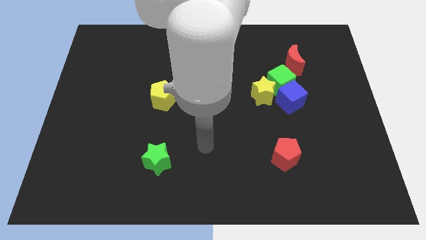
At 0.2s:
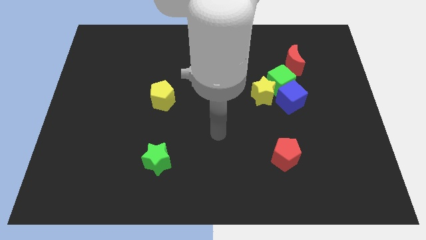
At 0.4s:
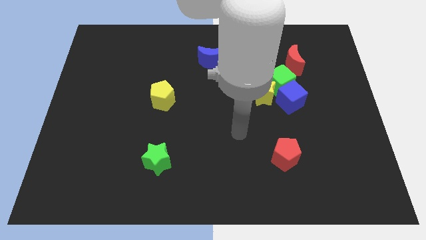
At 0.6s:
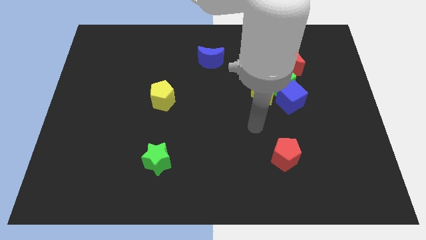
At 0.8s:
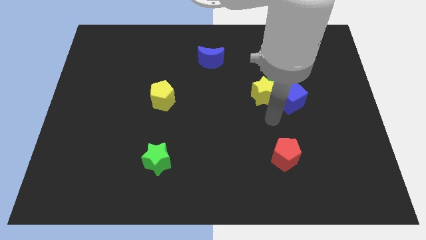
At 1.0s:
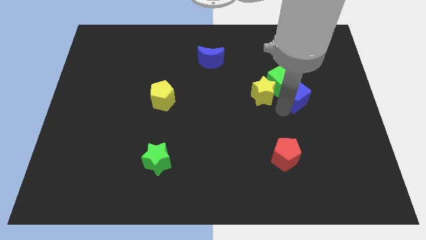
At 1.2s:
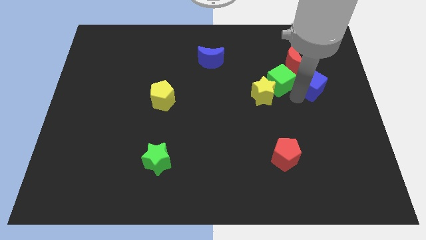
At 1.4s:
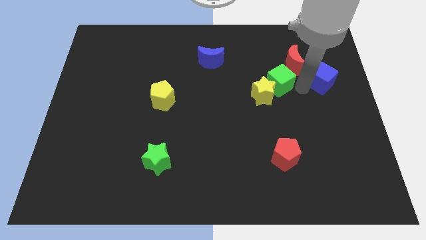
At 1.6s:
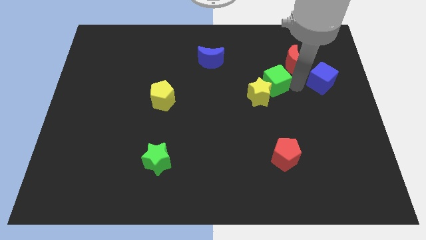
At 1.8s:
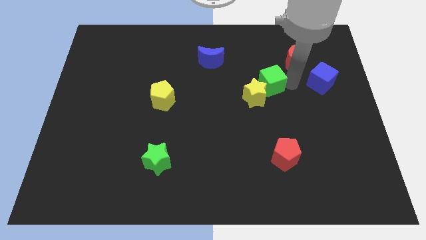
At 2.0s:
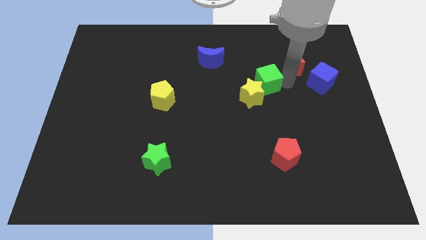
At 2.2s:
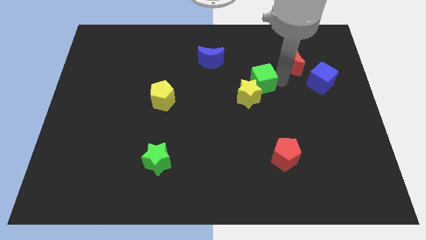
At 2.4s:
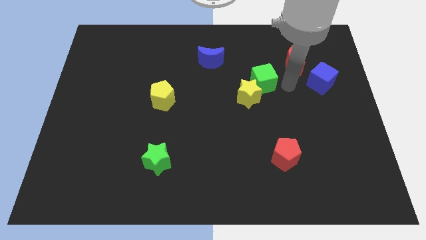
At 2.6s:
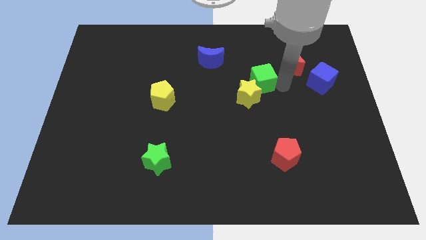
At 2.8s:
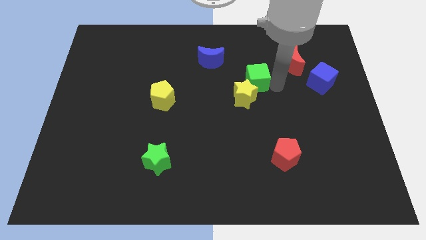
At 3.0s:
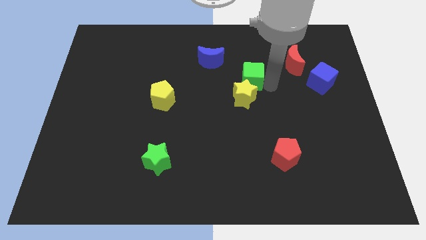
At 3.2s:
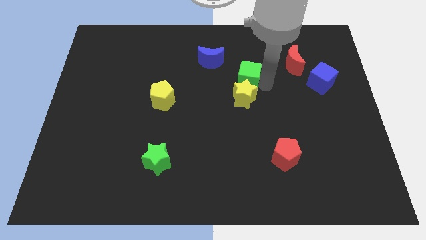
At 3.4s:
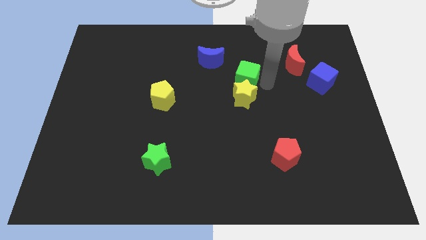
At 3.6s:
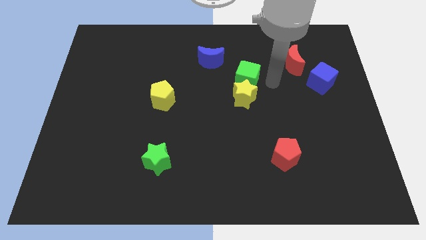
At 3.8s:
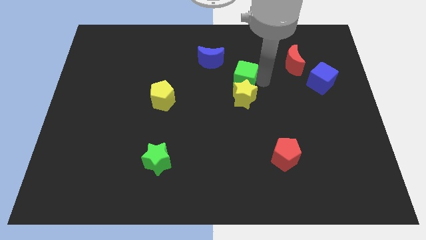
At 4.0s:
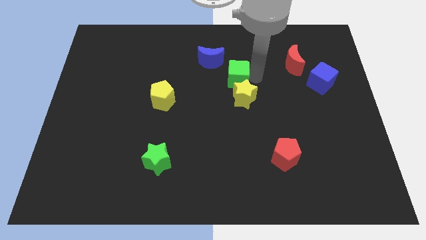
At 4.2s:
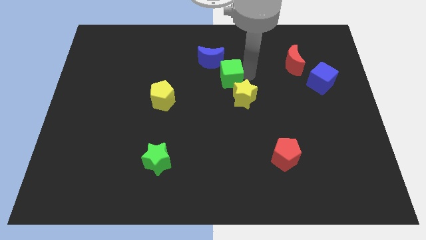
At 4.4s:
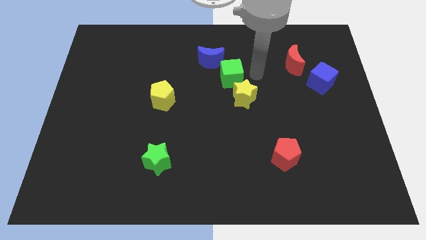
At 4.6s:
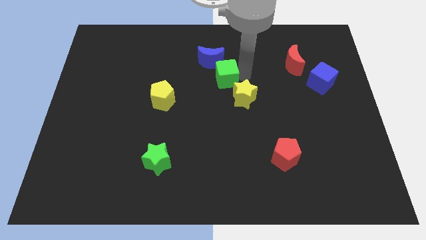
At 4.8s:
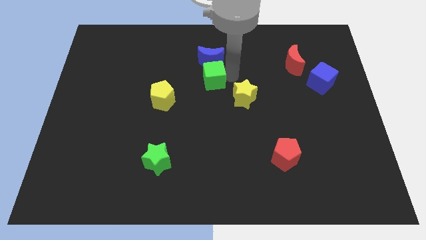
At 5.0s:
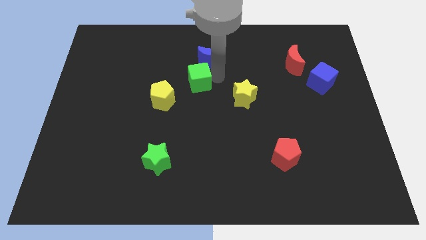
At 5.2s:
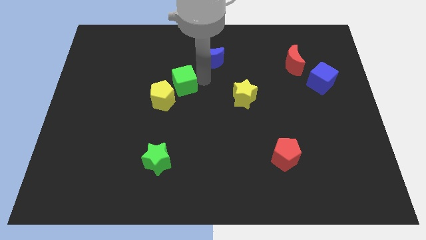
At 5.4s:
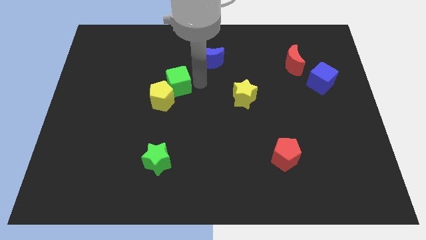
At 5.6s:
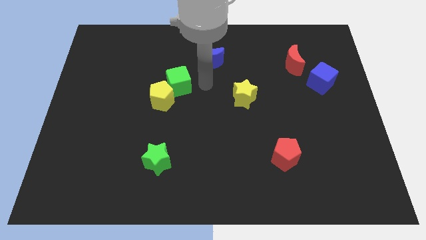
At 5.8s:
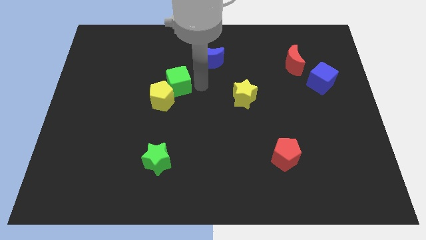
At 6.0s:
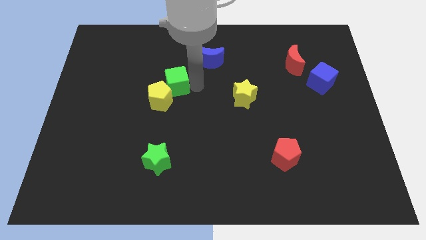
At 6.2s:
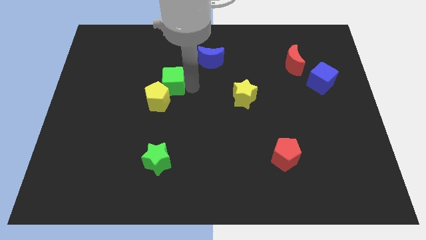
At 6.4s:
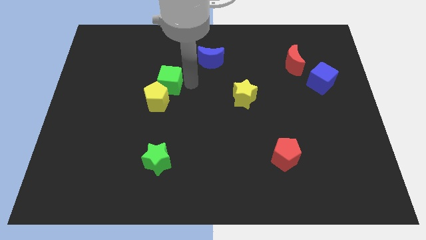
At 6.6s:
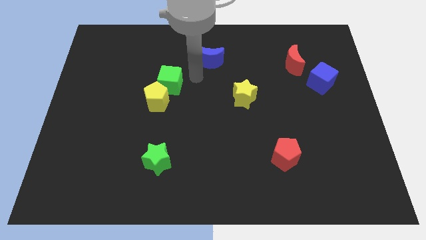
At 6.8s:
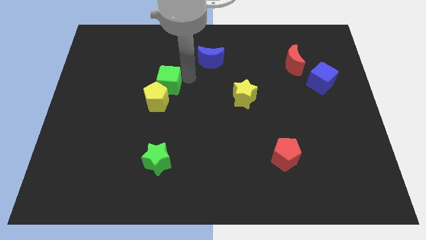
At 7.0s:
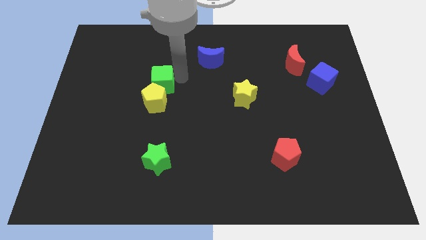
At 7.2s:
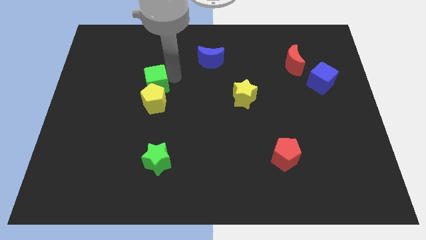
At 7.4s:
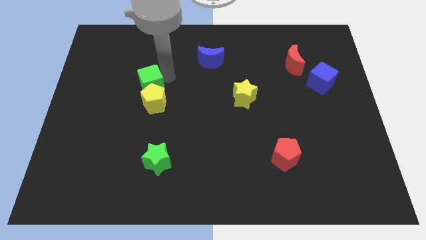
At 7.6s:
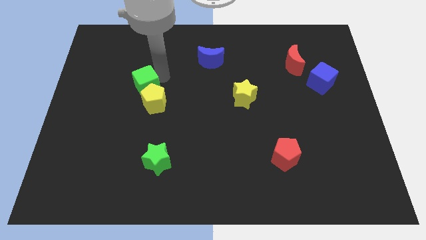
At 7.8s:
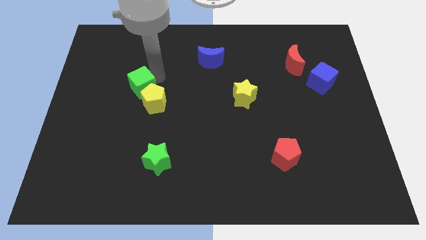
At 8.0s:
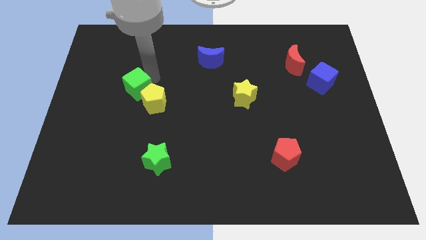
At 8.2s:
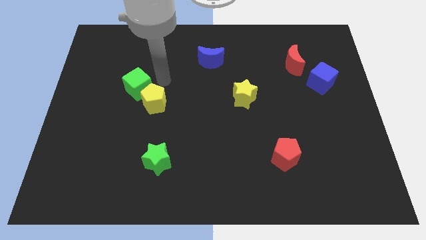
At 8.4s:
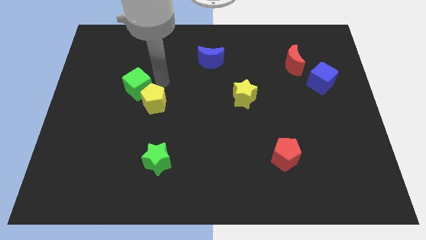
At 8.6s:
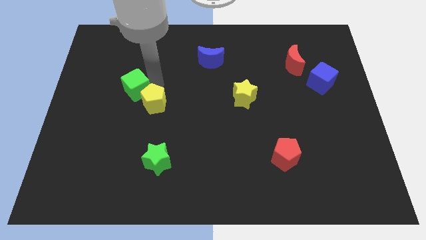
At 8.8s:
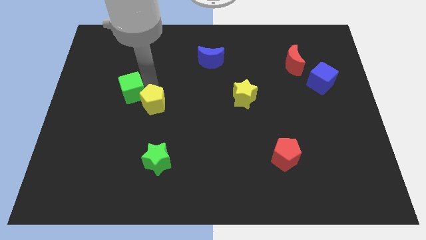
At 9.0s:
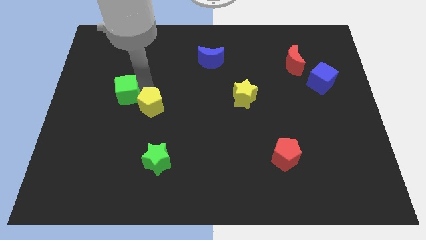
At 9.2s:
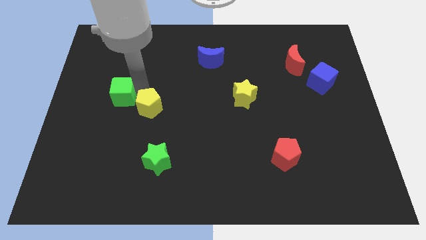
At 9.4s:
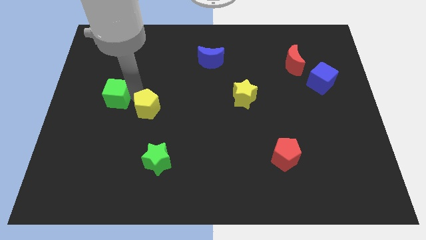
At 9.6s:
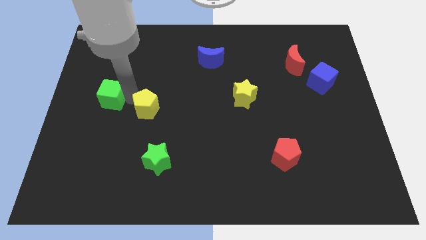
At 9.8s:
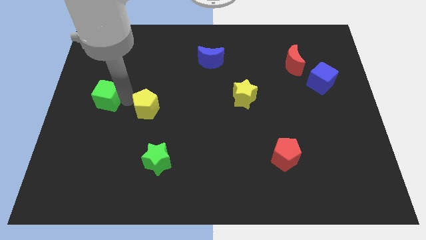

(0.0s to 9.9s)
push the green cube to the left side

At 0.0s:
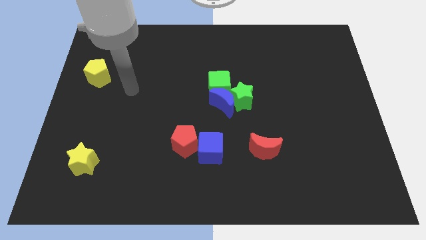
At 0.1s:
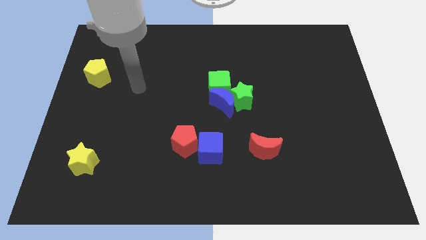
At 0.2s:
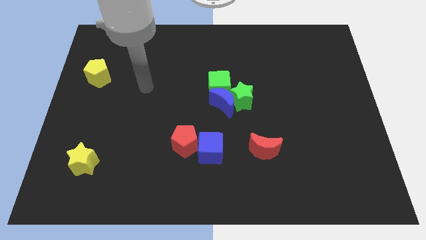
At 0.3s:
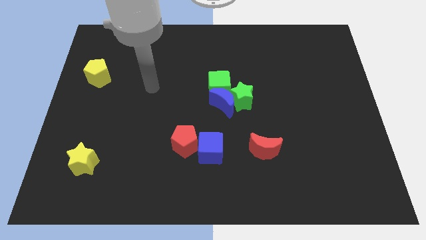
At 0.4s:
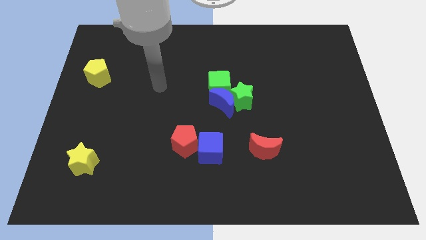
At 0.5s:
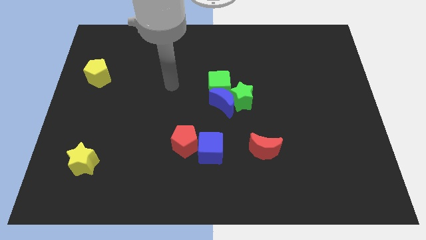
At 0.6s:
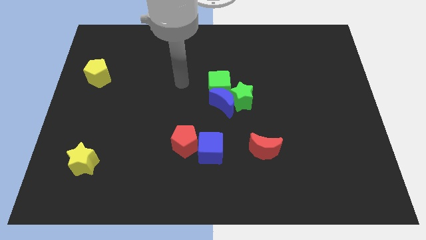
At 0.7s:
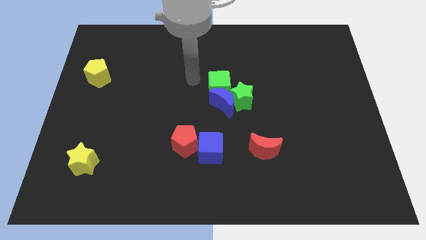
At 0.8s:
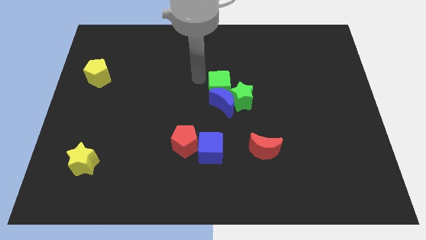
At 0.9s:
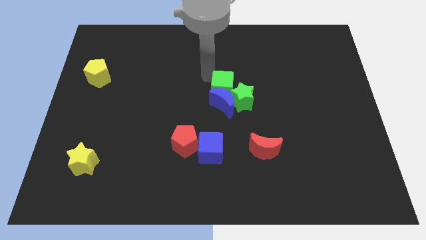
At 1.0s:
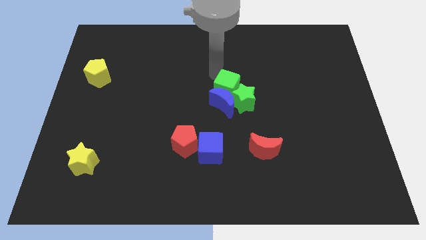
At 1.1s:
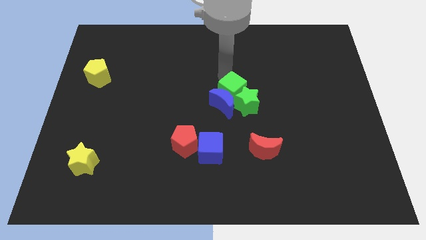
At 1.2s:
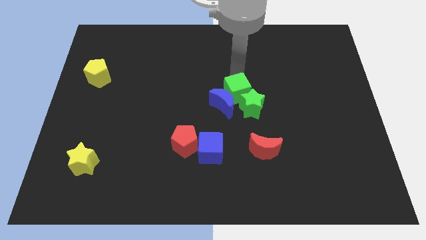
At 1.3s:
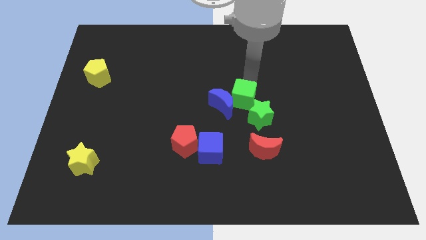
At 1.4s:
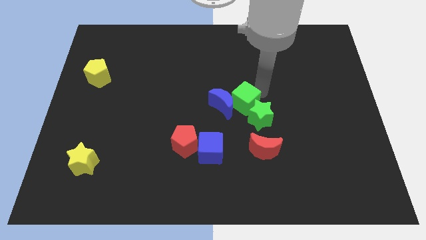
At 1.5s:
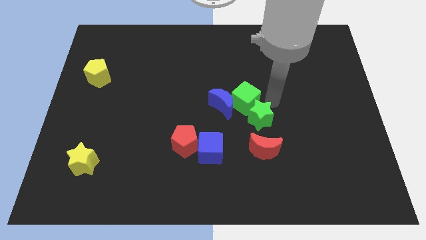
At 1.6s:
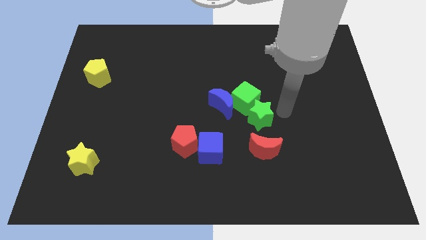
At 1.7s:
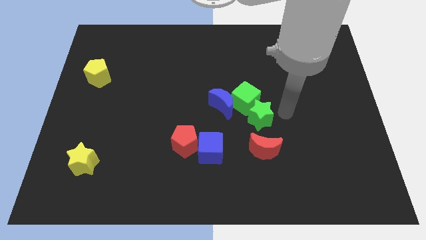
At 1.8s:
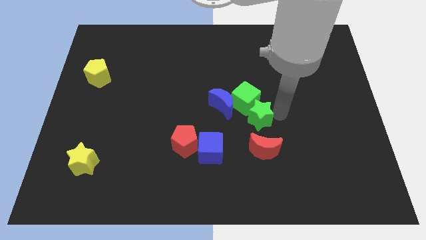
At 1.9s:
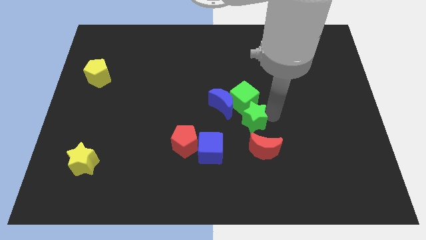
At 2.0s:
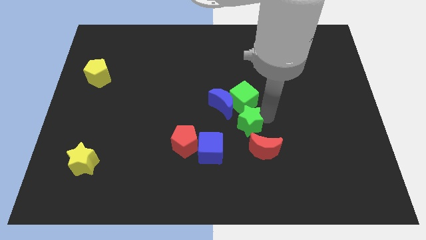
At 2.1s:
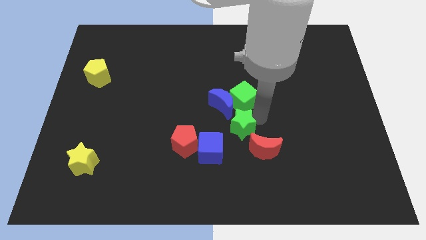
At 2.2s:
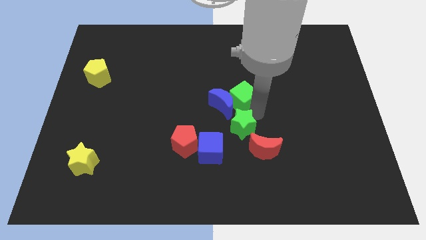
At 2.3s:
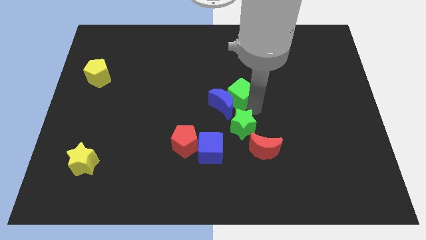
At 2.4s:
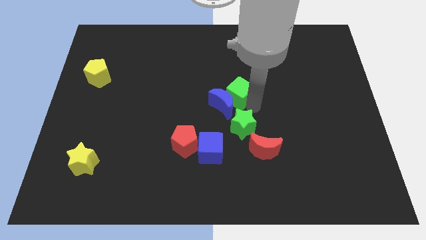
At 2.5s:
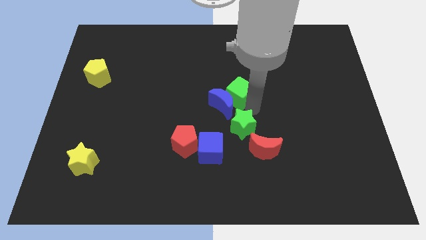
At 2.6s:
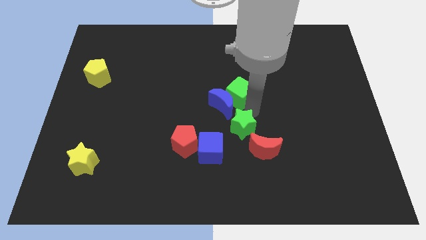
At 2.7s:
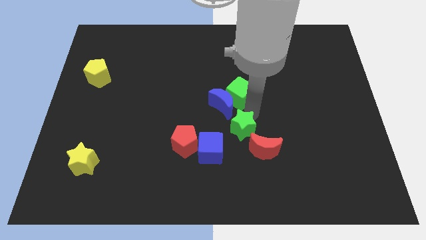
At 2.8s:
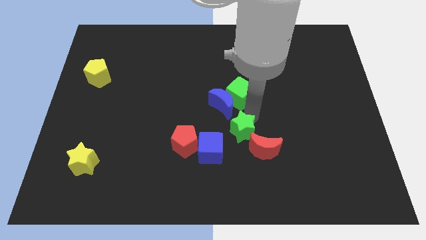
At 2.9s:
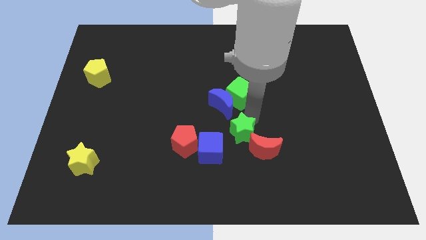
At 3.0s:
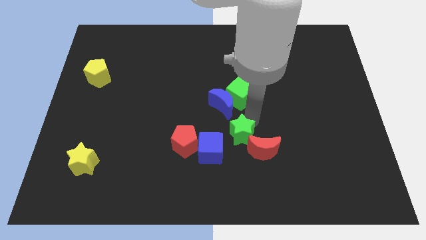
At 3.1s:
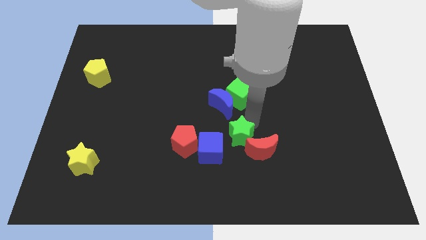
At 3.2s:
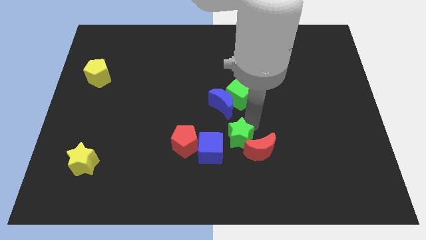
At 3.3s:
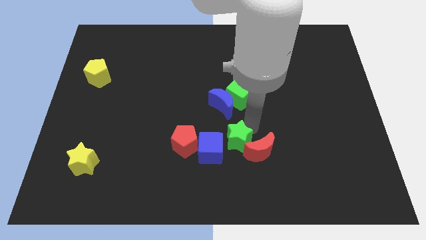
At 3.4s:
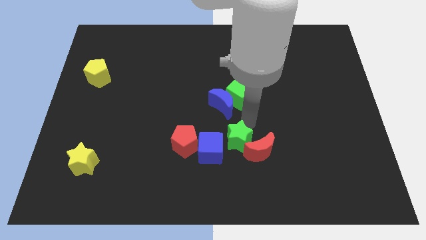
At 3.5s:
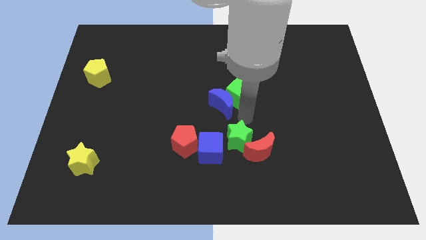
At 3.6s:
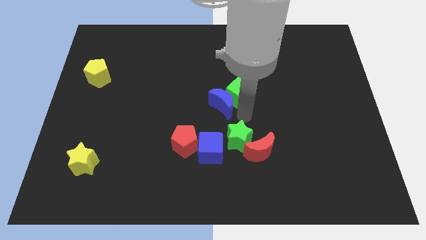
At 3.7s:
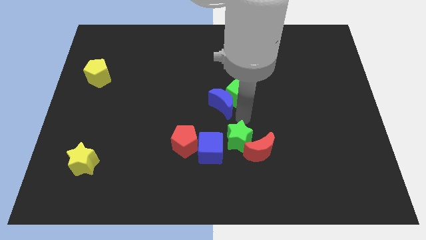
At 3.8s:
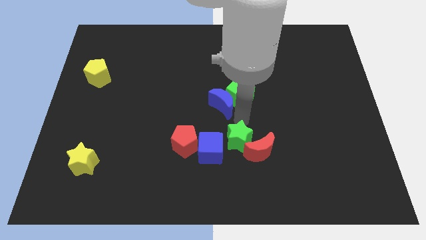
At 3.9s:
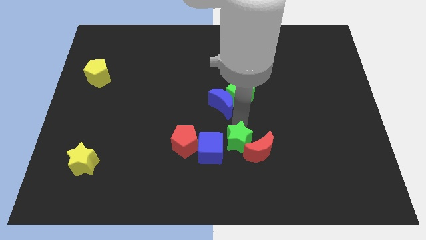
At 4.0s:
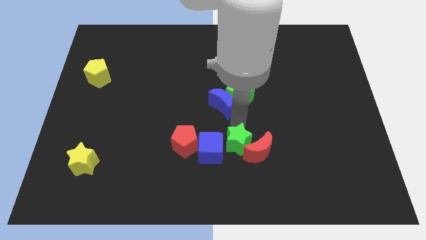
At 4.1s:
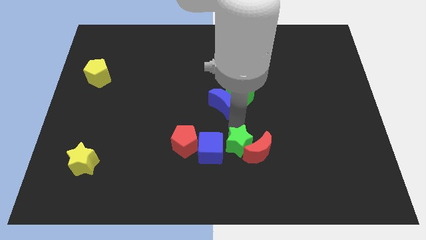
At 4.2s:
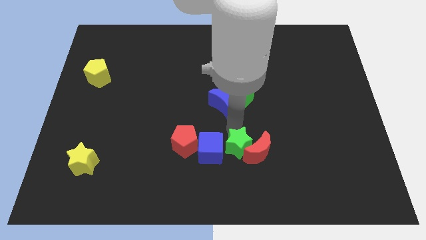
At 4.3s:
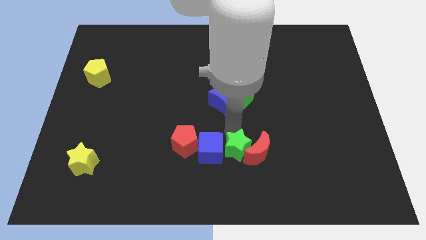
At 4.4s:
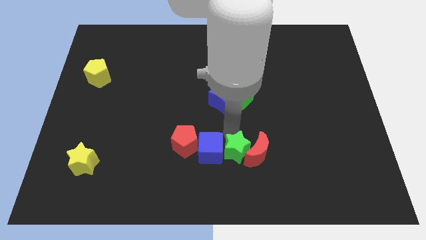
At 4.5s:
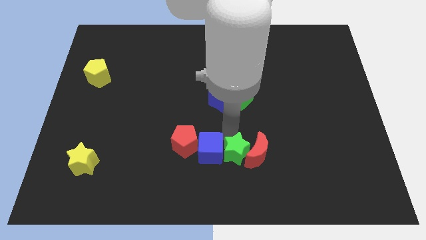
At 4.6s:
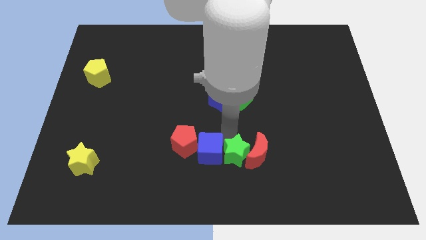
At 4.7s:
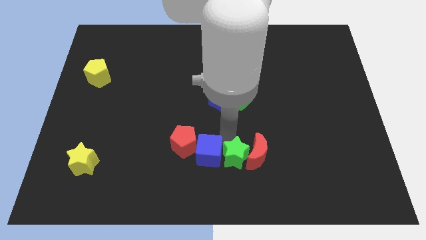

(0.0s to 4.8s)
move the green star to the bottom
